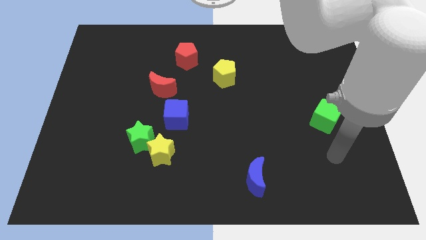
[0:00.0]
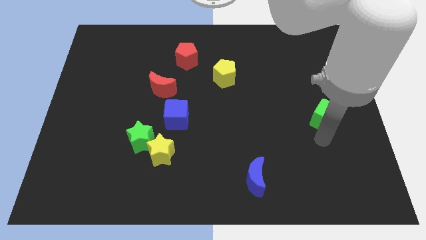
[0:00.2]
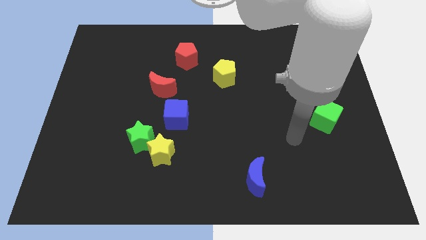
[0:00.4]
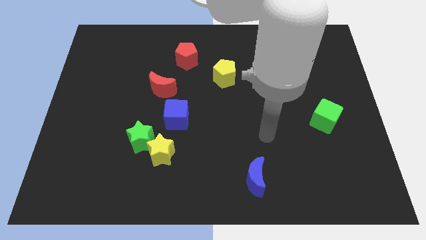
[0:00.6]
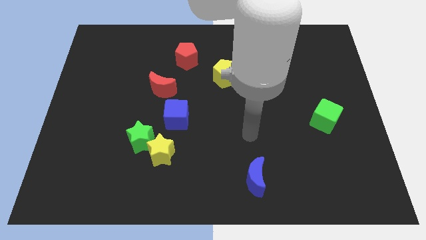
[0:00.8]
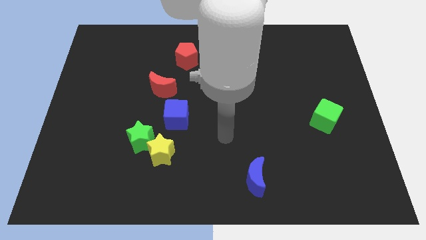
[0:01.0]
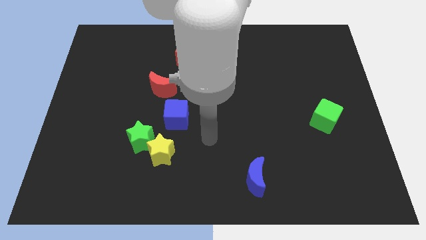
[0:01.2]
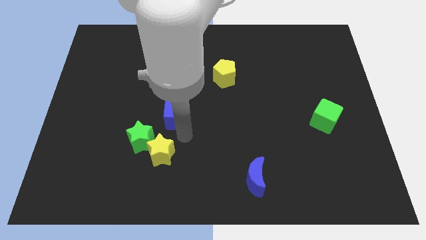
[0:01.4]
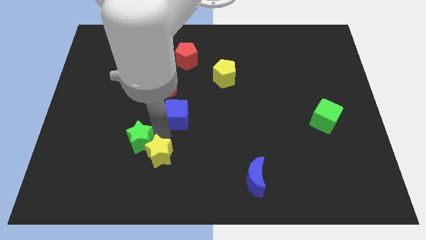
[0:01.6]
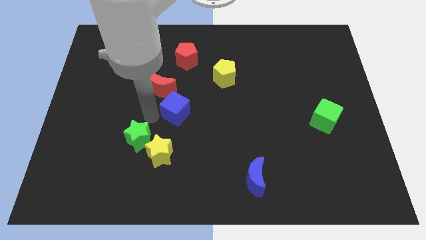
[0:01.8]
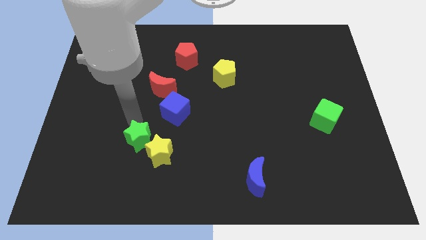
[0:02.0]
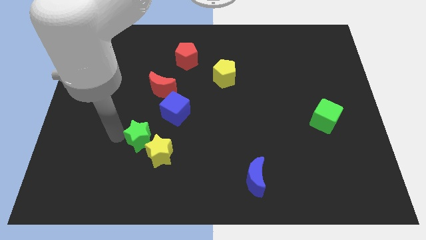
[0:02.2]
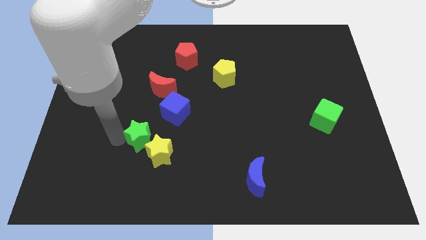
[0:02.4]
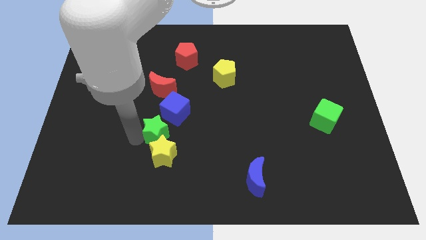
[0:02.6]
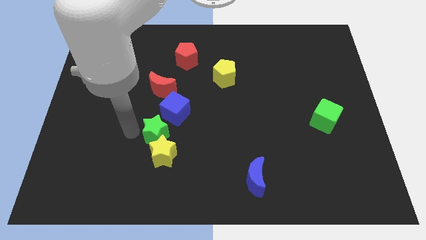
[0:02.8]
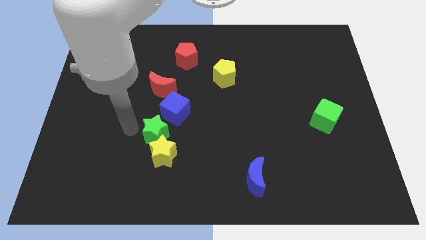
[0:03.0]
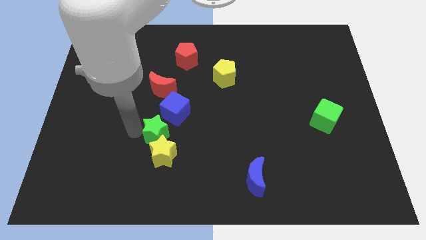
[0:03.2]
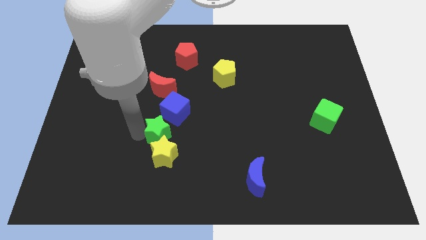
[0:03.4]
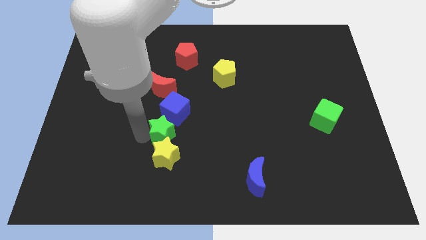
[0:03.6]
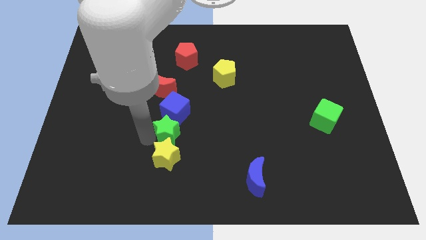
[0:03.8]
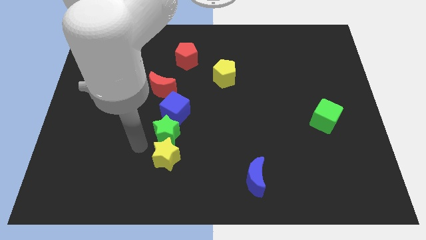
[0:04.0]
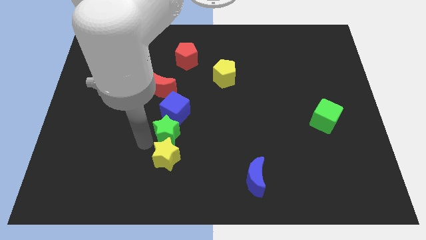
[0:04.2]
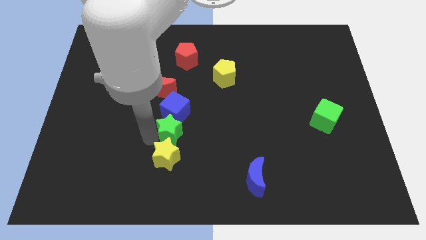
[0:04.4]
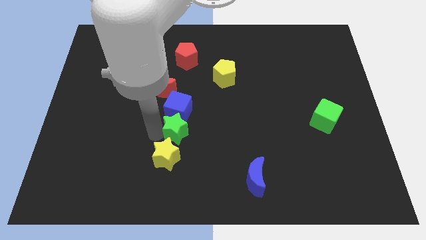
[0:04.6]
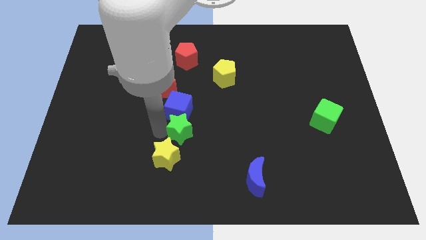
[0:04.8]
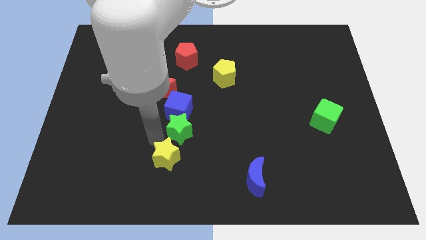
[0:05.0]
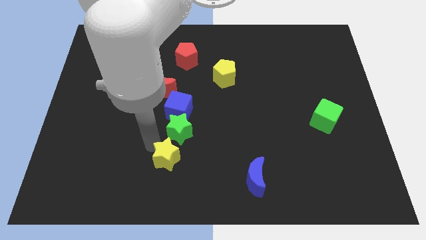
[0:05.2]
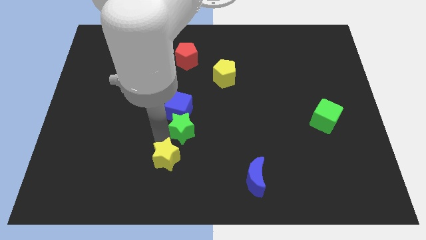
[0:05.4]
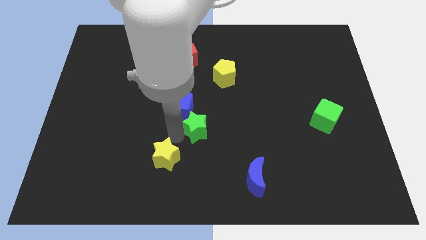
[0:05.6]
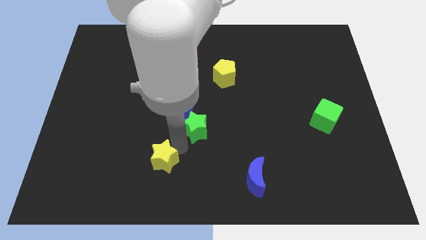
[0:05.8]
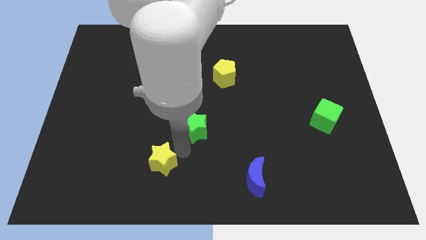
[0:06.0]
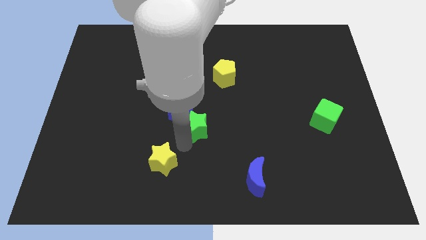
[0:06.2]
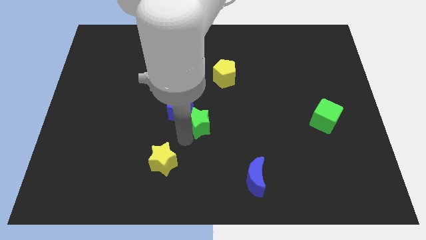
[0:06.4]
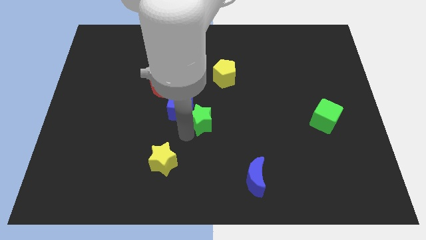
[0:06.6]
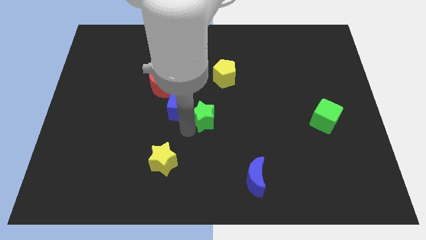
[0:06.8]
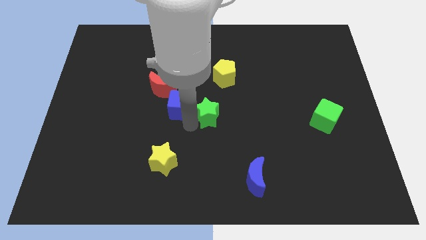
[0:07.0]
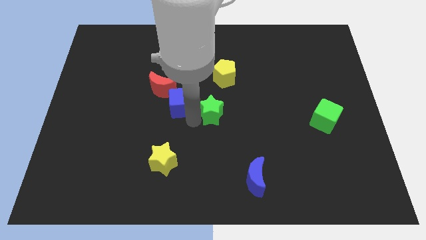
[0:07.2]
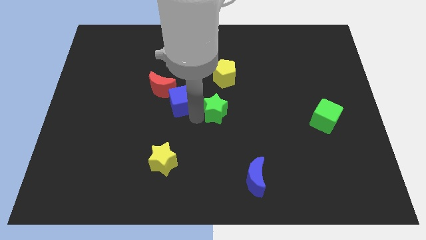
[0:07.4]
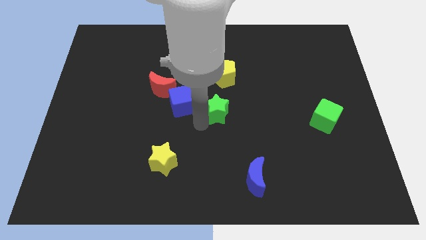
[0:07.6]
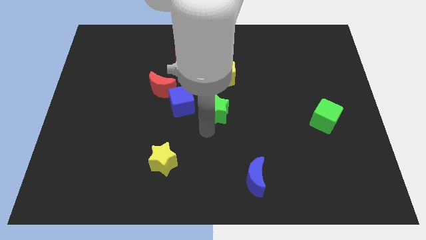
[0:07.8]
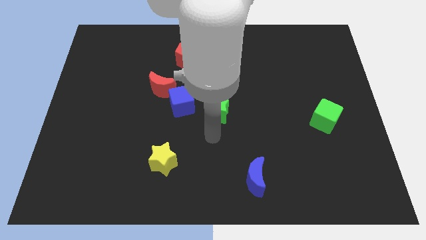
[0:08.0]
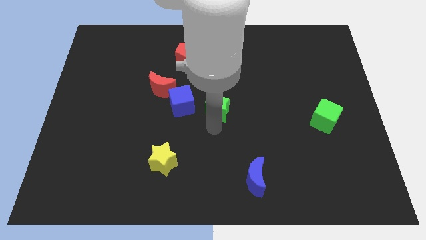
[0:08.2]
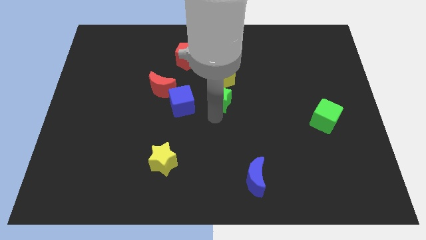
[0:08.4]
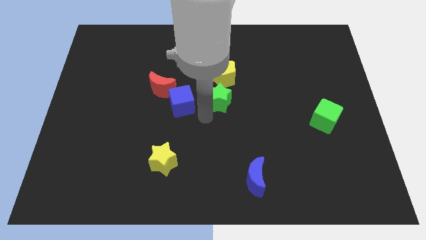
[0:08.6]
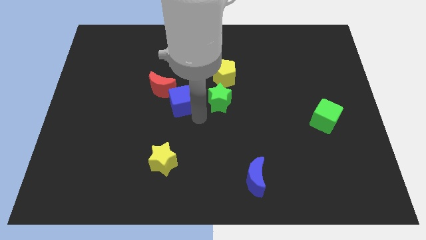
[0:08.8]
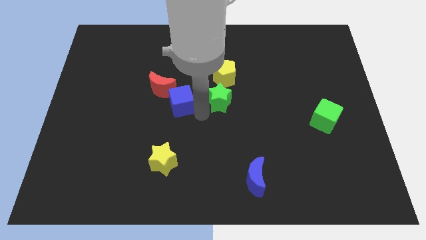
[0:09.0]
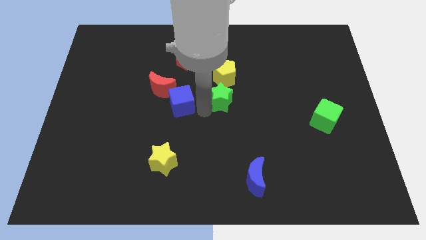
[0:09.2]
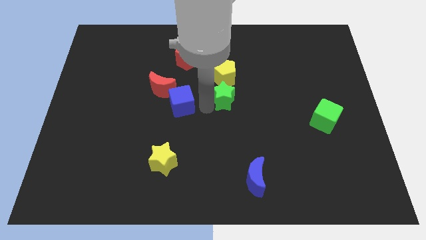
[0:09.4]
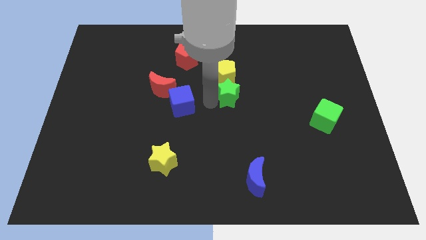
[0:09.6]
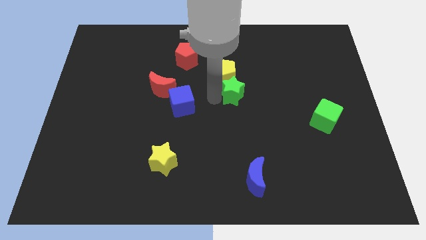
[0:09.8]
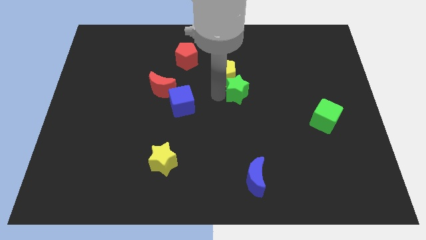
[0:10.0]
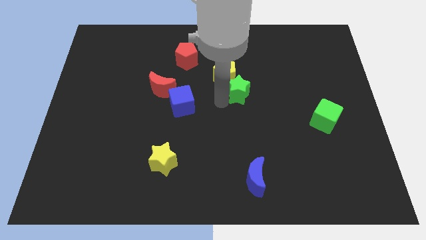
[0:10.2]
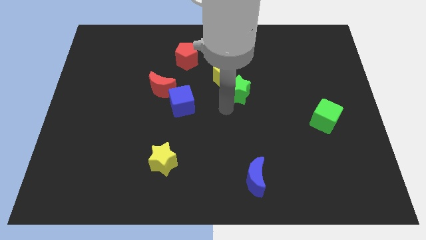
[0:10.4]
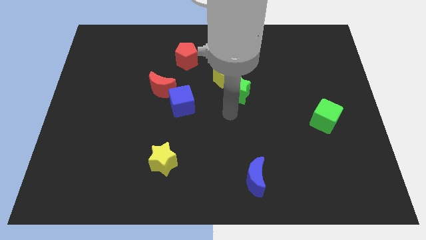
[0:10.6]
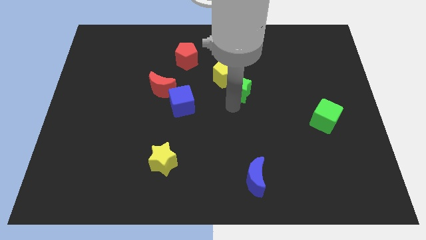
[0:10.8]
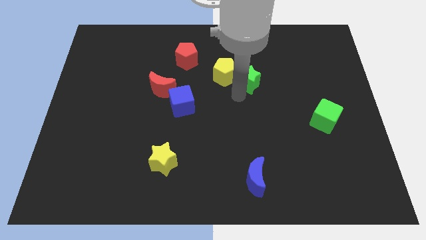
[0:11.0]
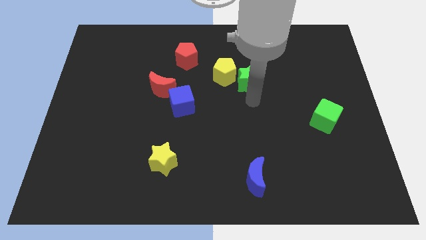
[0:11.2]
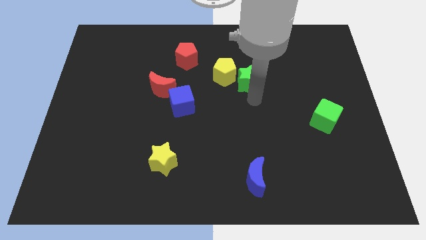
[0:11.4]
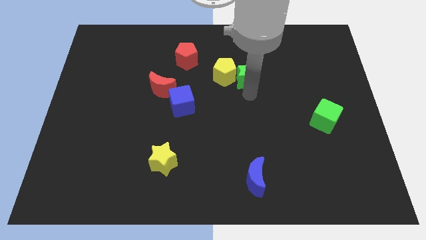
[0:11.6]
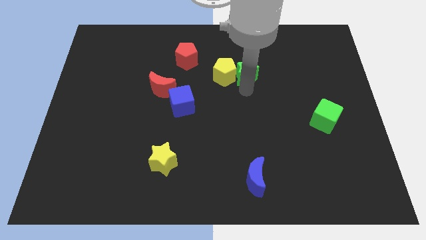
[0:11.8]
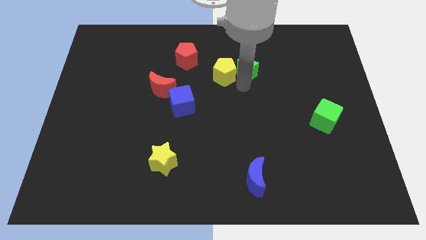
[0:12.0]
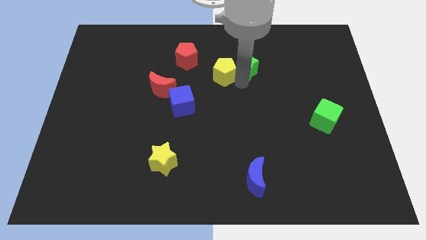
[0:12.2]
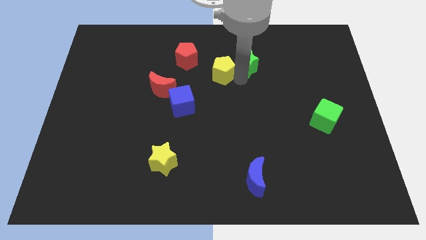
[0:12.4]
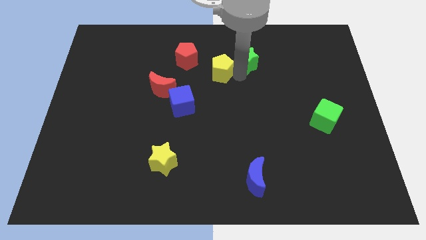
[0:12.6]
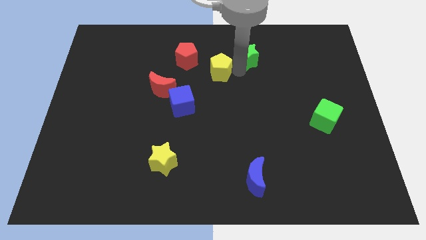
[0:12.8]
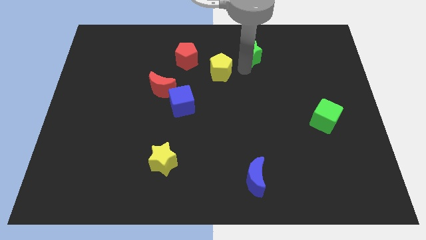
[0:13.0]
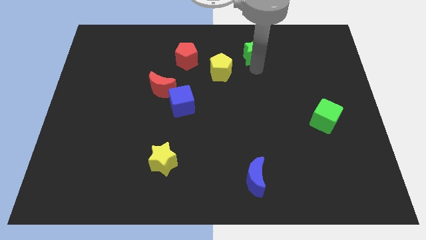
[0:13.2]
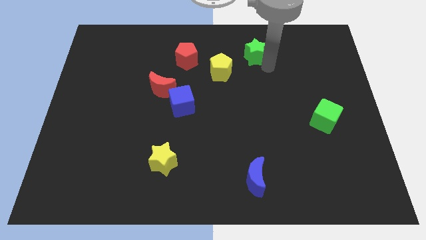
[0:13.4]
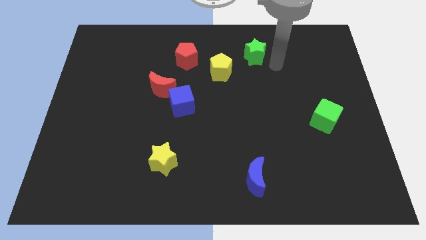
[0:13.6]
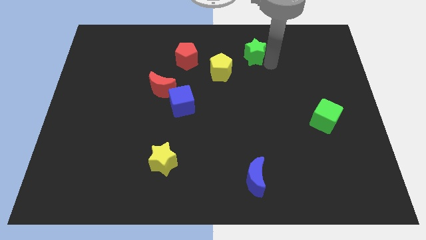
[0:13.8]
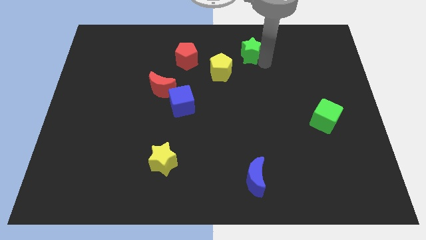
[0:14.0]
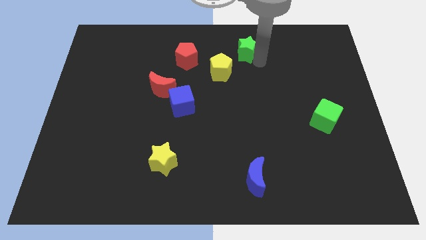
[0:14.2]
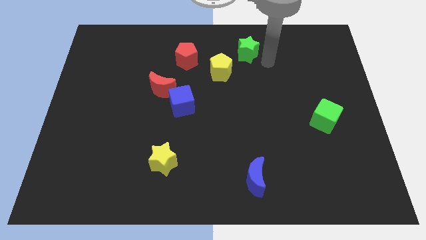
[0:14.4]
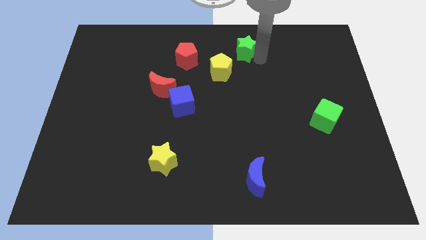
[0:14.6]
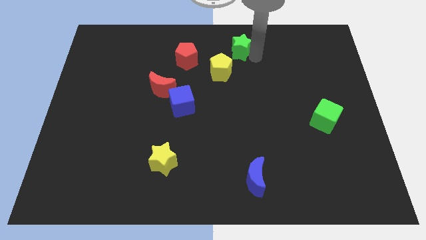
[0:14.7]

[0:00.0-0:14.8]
slide the green star to the top
